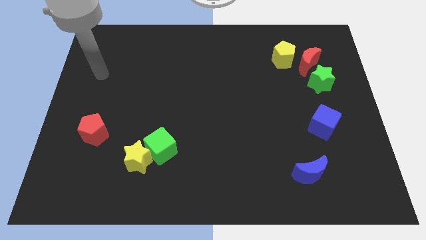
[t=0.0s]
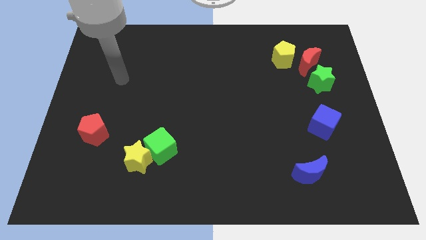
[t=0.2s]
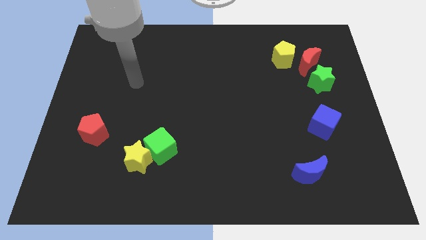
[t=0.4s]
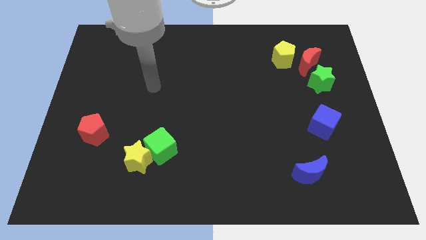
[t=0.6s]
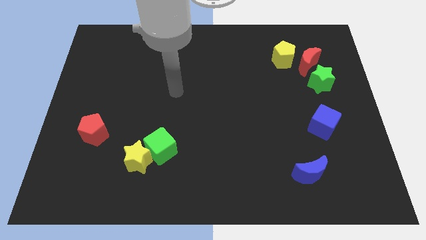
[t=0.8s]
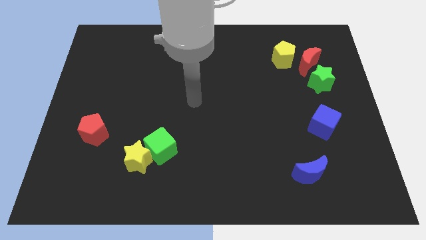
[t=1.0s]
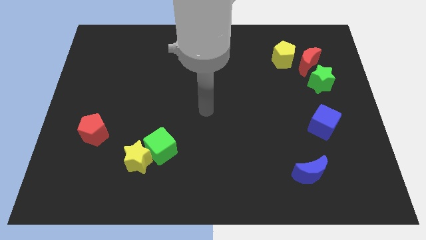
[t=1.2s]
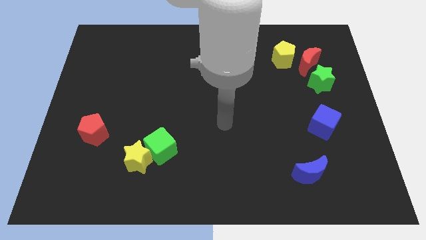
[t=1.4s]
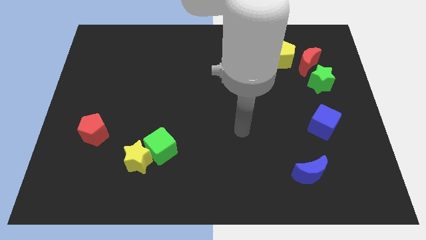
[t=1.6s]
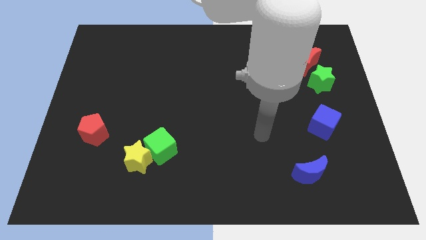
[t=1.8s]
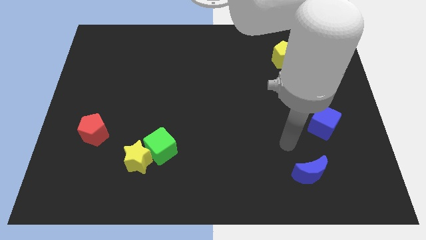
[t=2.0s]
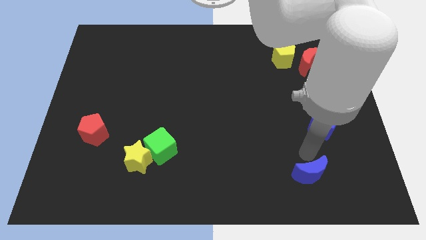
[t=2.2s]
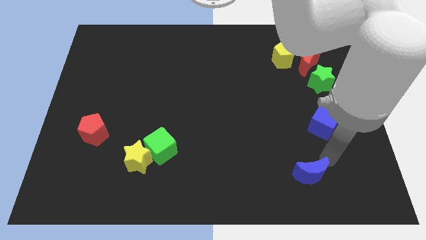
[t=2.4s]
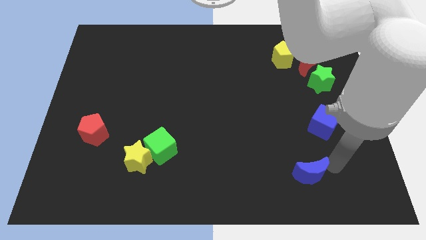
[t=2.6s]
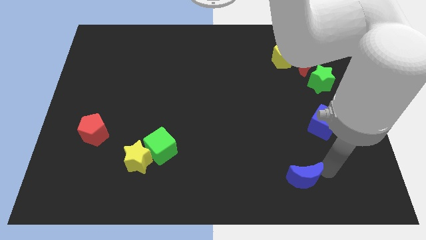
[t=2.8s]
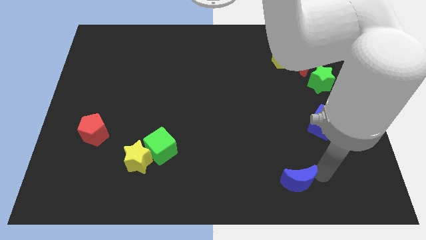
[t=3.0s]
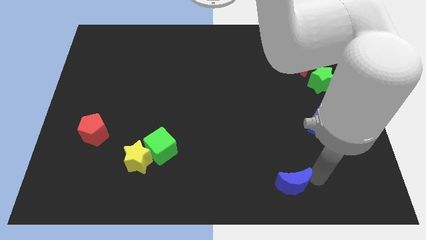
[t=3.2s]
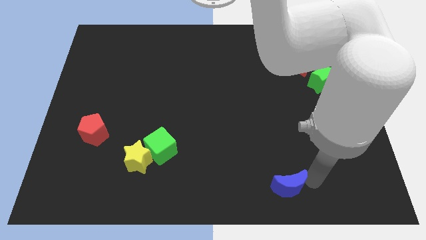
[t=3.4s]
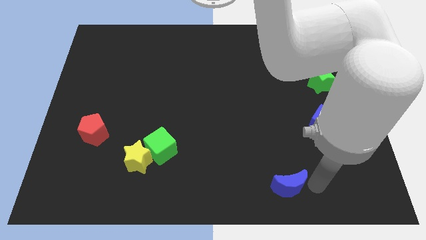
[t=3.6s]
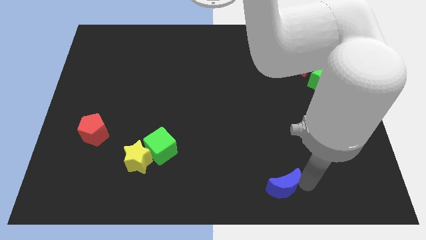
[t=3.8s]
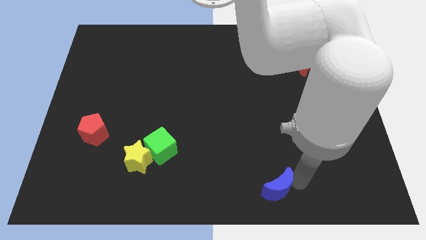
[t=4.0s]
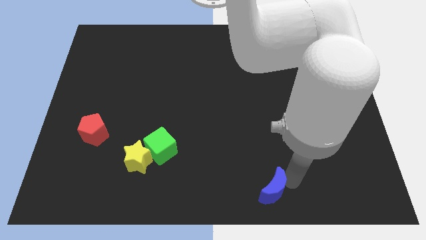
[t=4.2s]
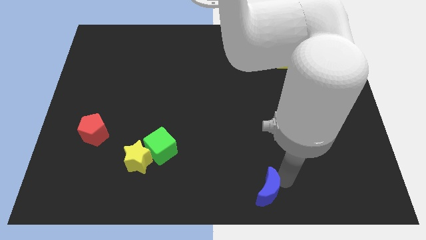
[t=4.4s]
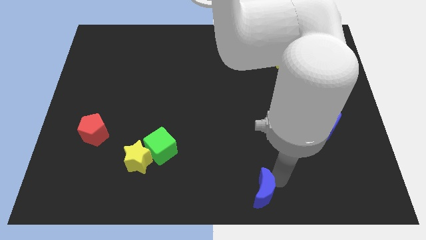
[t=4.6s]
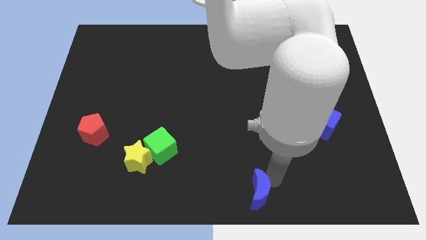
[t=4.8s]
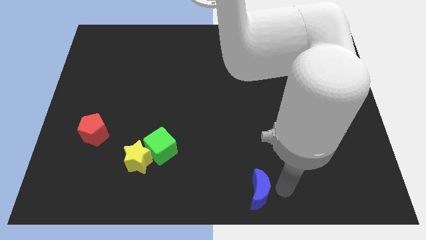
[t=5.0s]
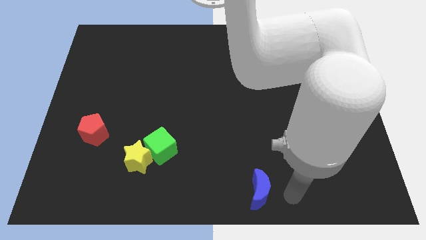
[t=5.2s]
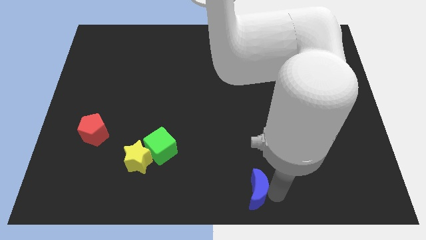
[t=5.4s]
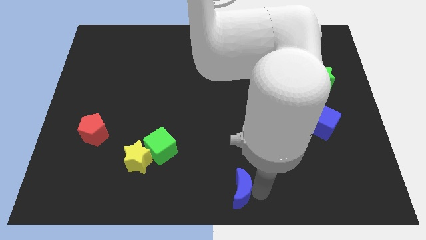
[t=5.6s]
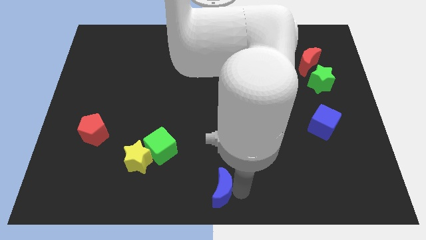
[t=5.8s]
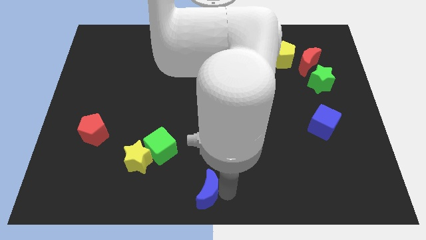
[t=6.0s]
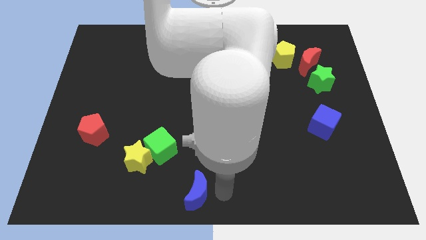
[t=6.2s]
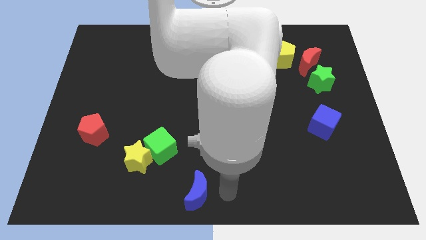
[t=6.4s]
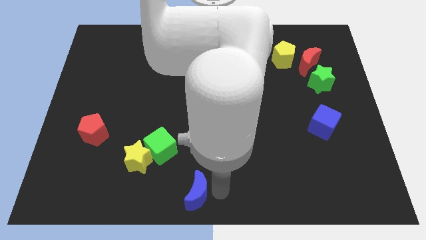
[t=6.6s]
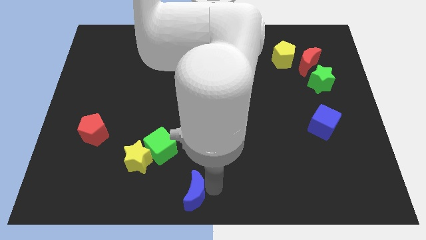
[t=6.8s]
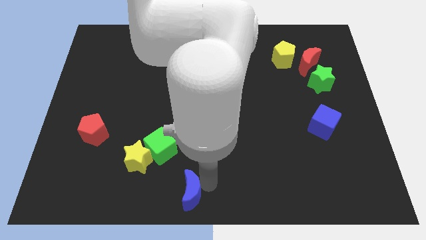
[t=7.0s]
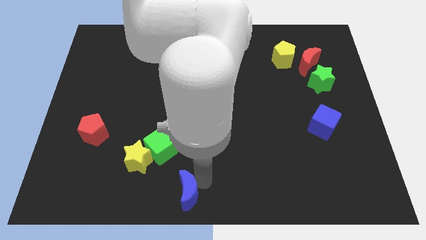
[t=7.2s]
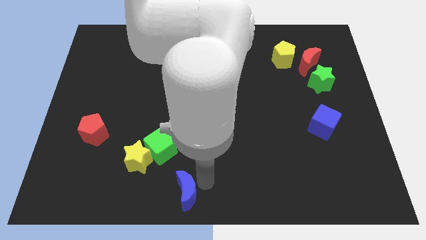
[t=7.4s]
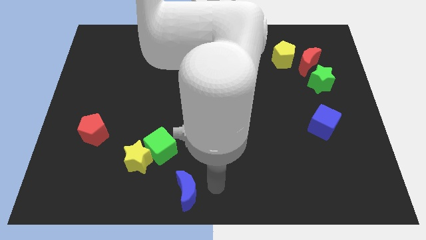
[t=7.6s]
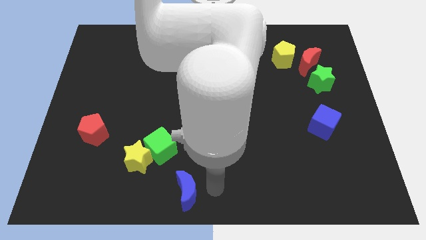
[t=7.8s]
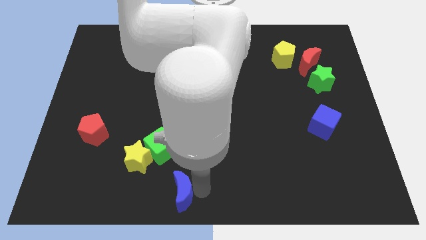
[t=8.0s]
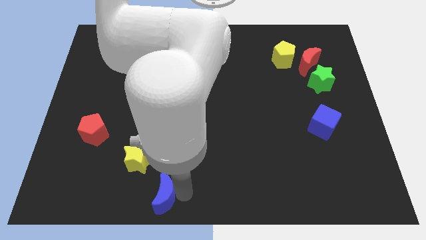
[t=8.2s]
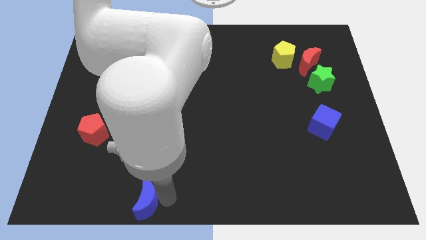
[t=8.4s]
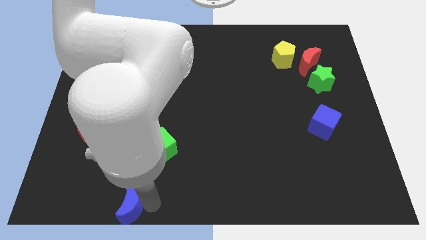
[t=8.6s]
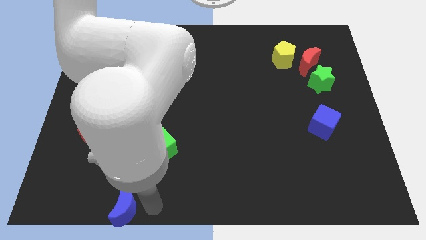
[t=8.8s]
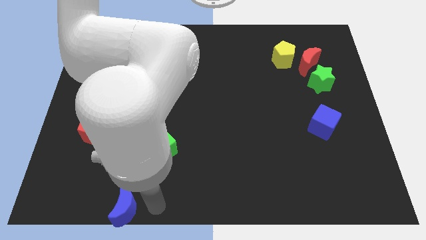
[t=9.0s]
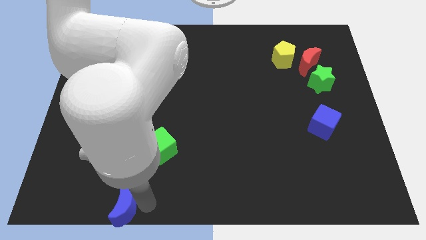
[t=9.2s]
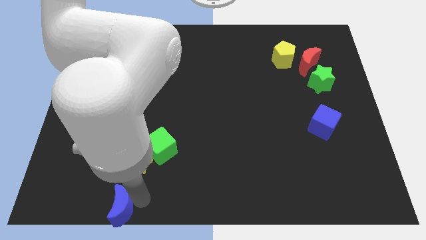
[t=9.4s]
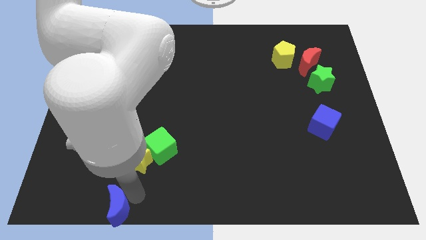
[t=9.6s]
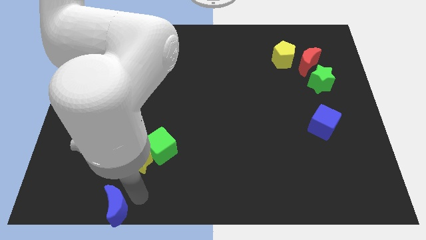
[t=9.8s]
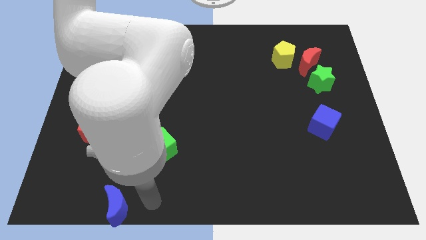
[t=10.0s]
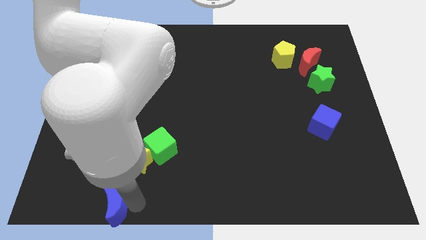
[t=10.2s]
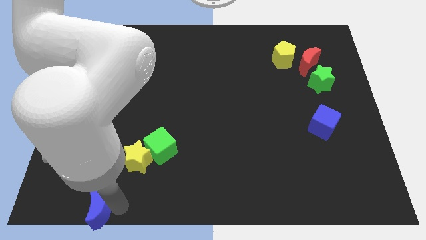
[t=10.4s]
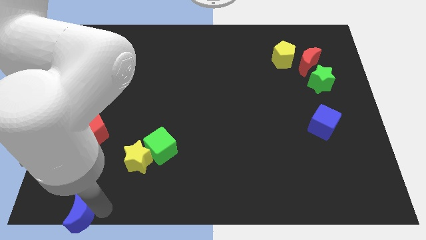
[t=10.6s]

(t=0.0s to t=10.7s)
put the blue moon to the lower left corner

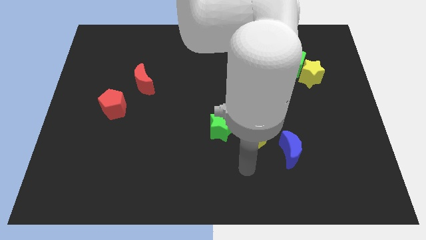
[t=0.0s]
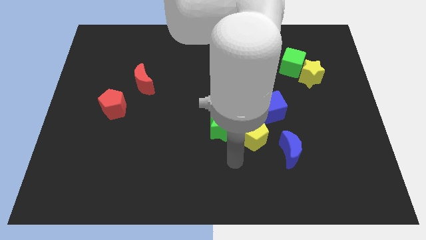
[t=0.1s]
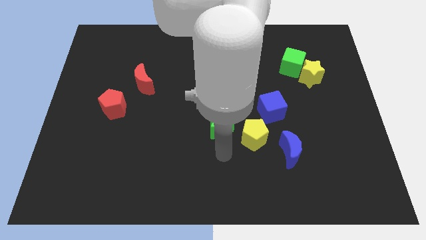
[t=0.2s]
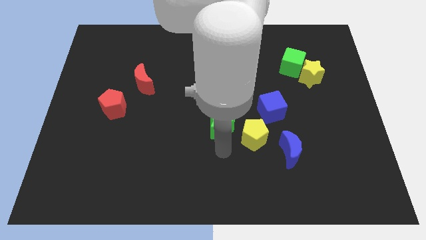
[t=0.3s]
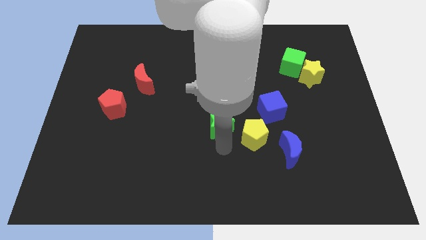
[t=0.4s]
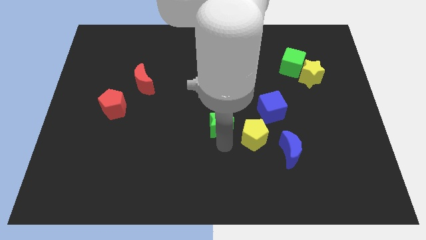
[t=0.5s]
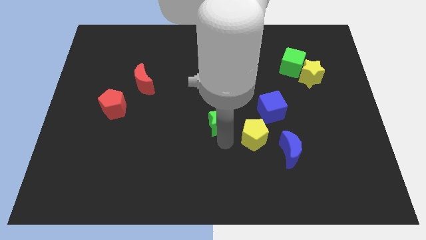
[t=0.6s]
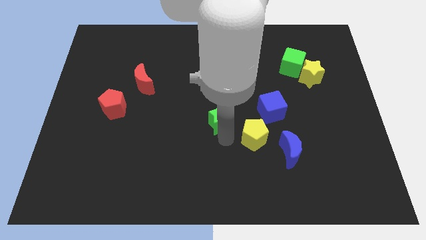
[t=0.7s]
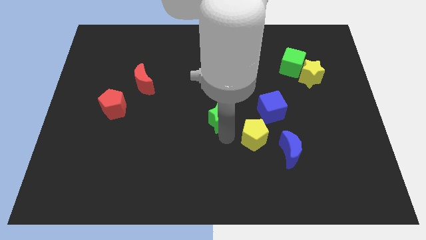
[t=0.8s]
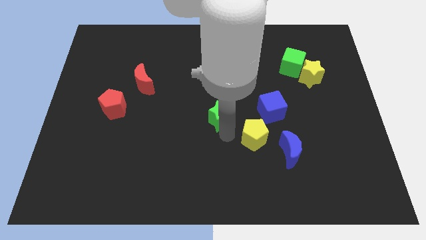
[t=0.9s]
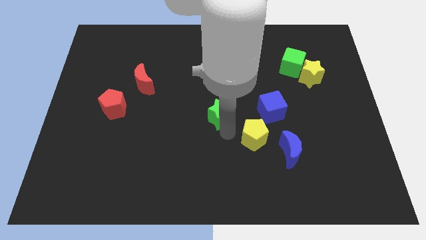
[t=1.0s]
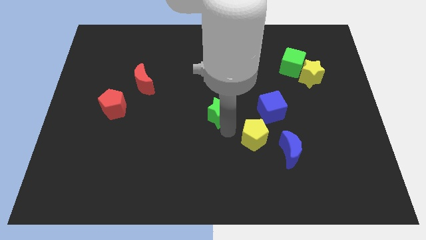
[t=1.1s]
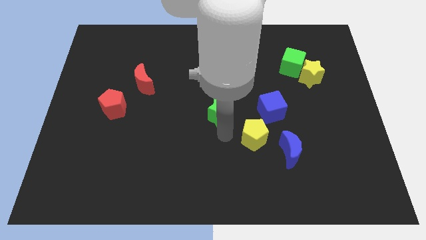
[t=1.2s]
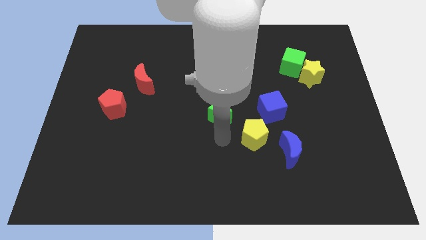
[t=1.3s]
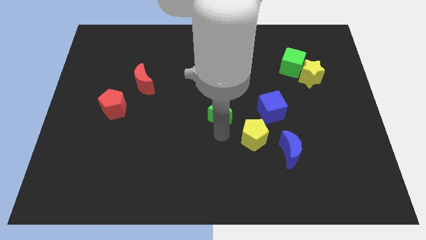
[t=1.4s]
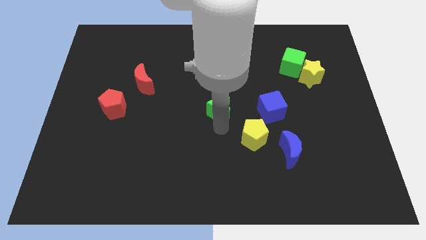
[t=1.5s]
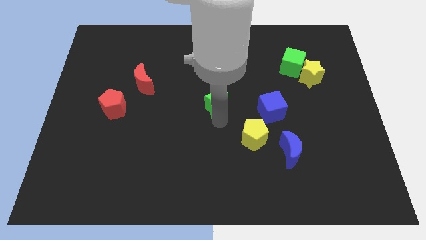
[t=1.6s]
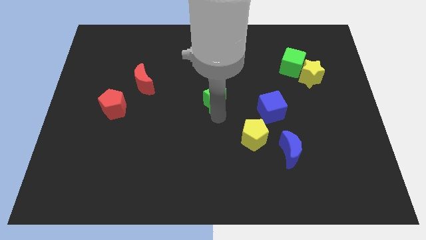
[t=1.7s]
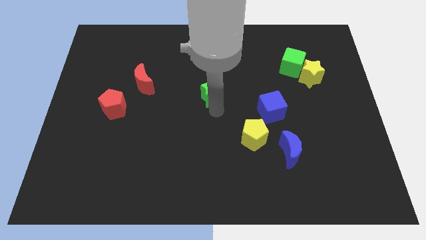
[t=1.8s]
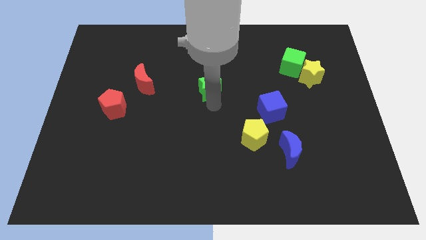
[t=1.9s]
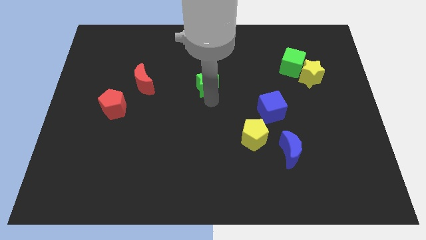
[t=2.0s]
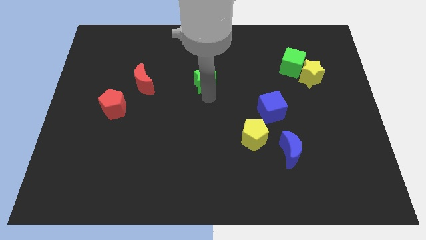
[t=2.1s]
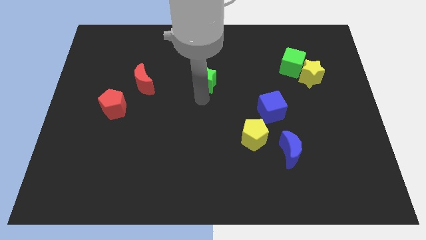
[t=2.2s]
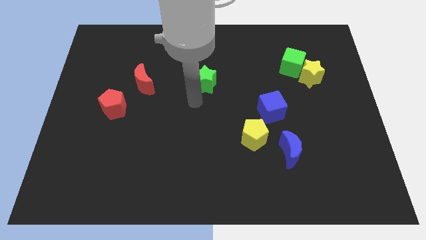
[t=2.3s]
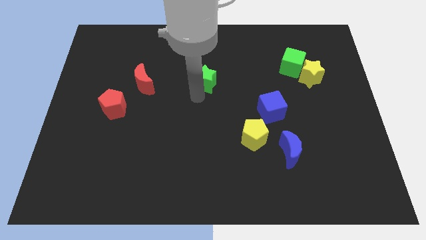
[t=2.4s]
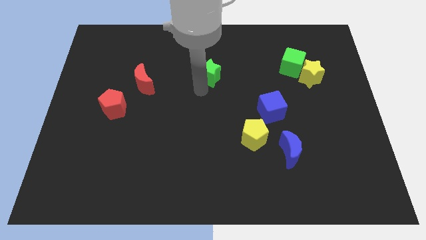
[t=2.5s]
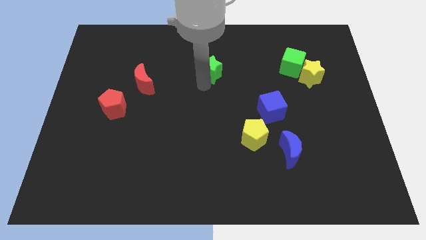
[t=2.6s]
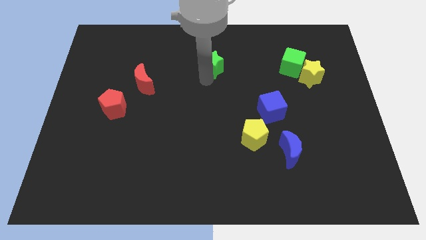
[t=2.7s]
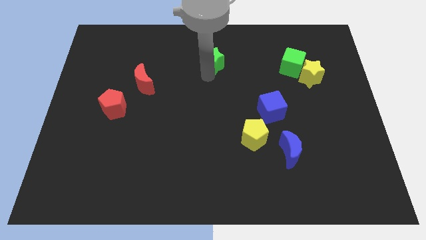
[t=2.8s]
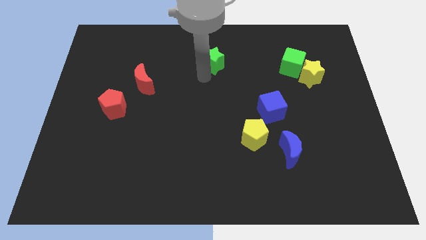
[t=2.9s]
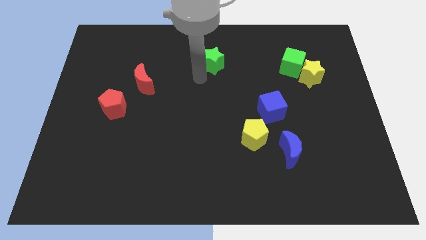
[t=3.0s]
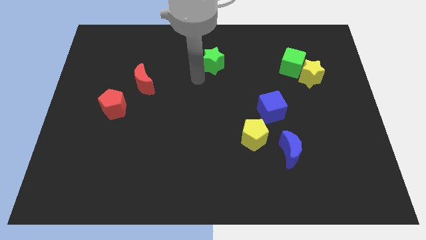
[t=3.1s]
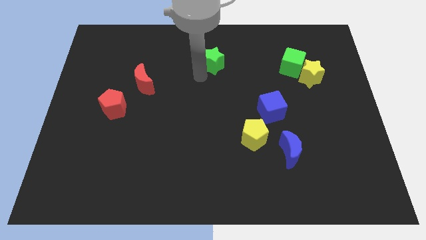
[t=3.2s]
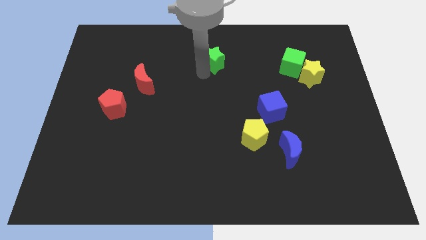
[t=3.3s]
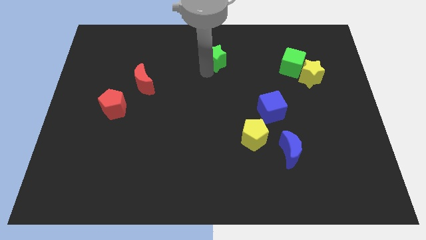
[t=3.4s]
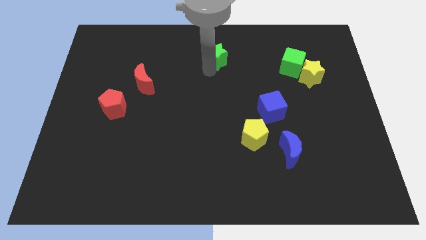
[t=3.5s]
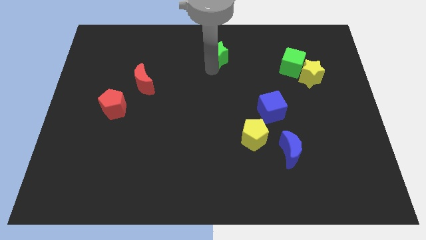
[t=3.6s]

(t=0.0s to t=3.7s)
push the green star to the top
